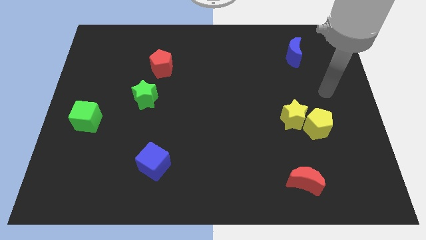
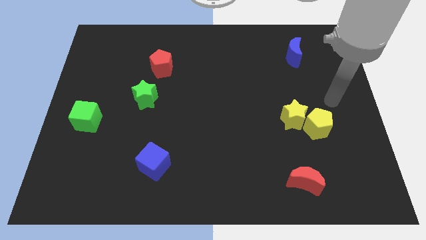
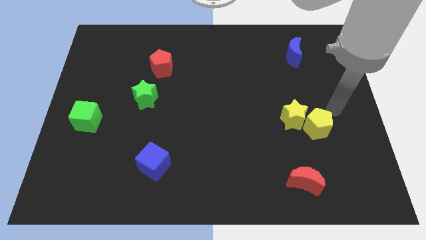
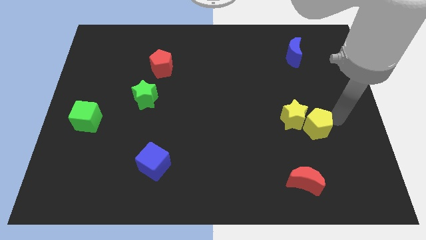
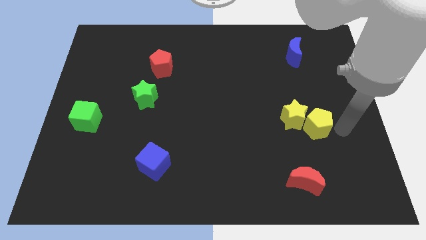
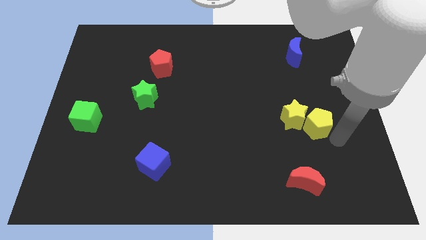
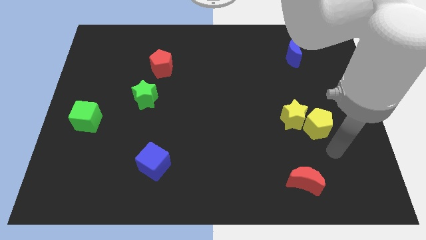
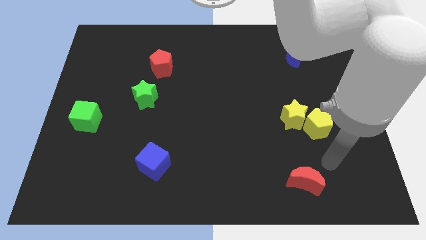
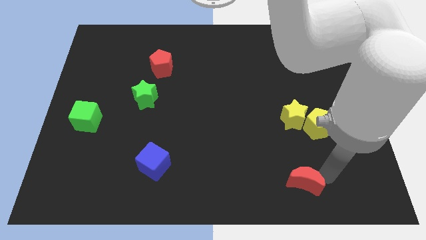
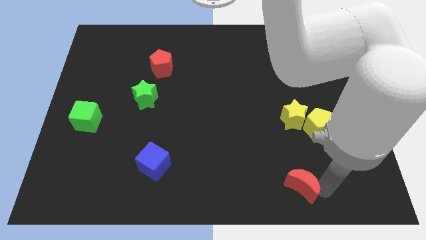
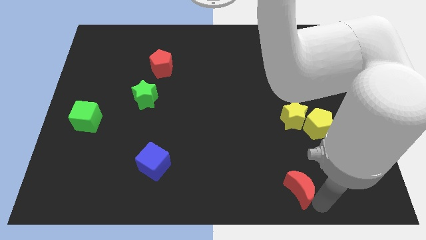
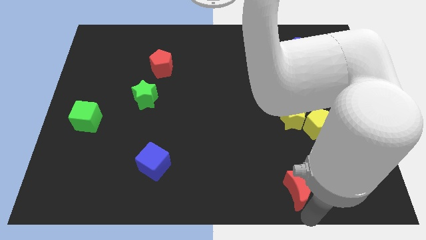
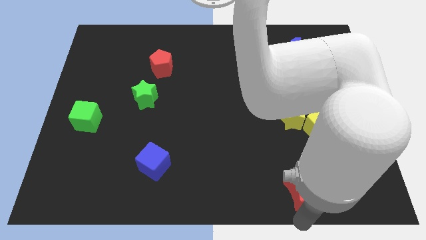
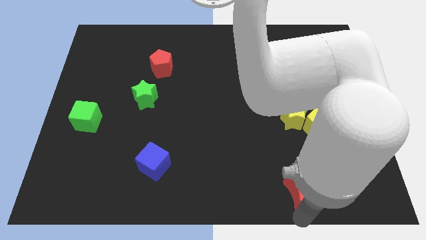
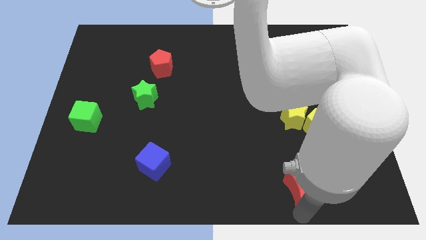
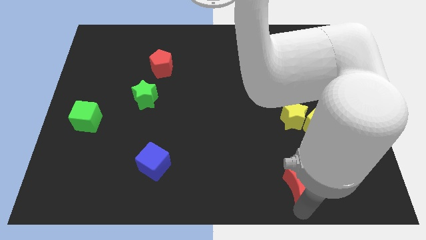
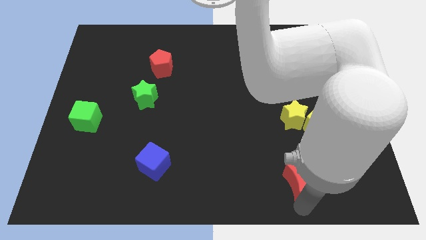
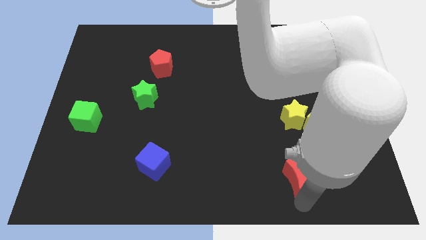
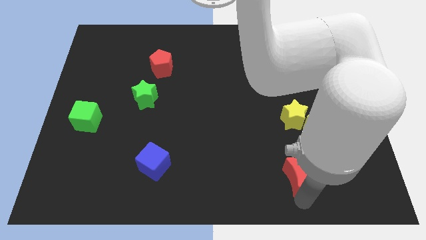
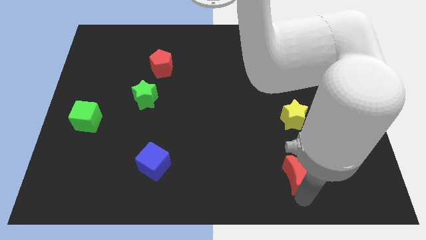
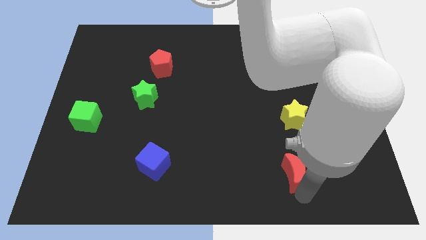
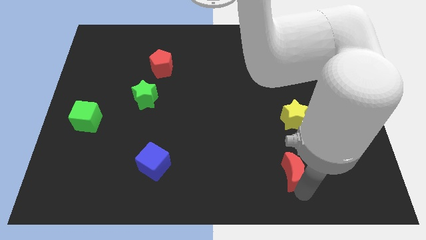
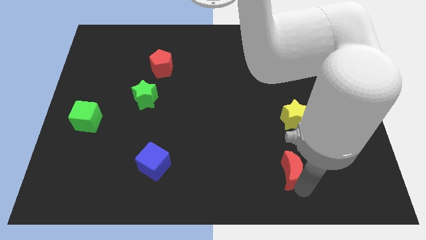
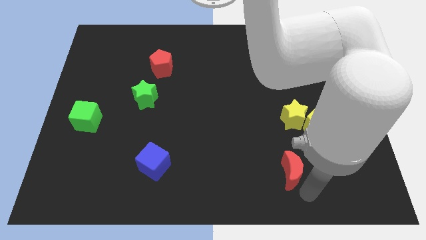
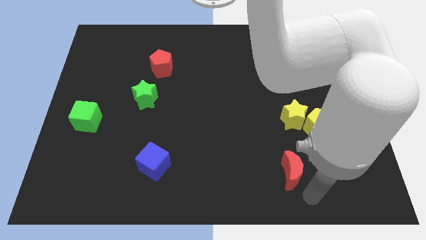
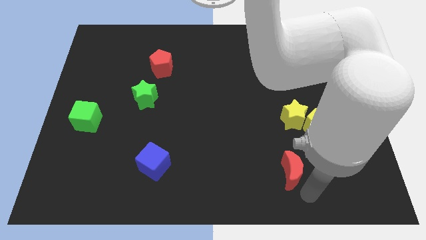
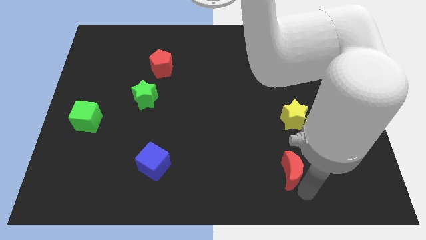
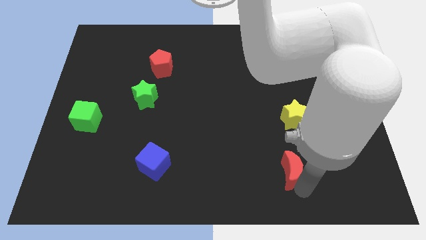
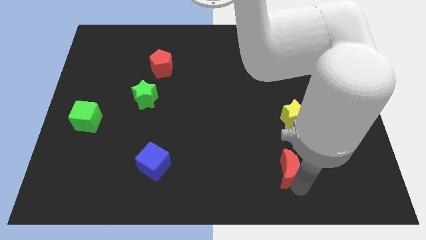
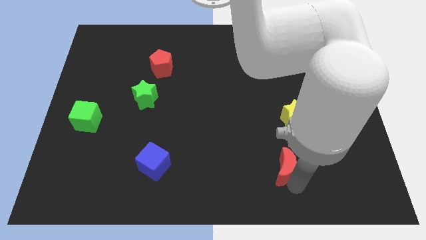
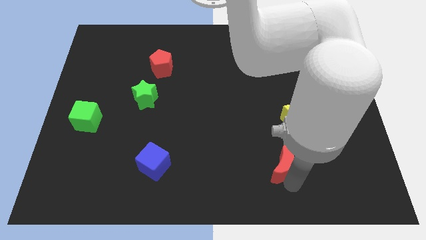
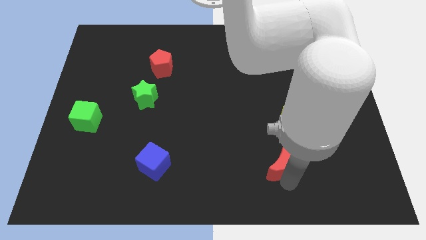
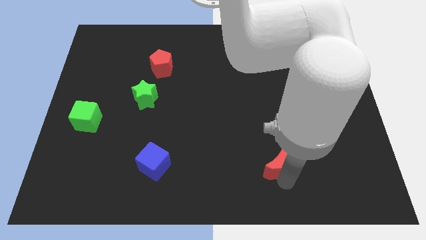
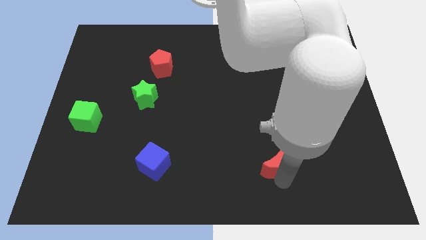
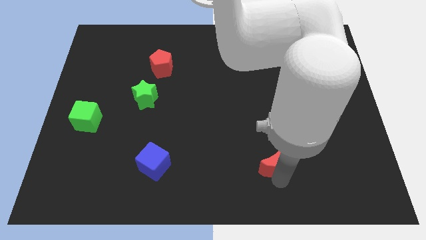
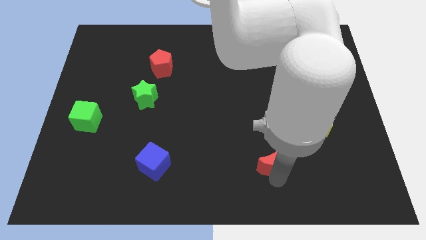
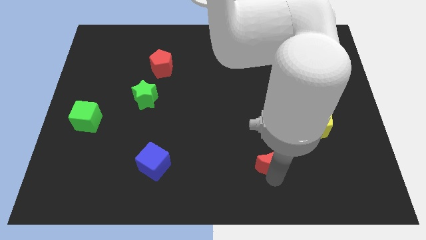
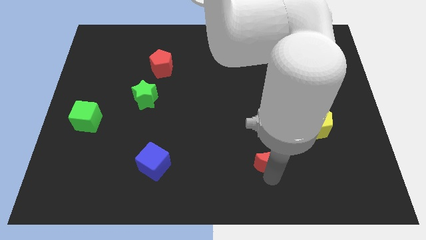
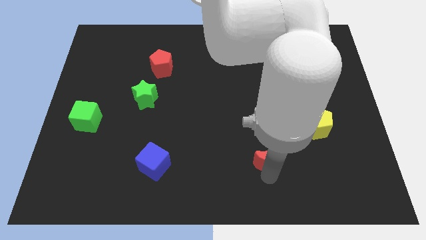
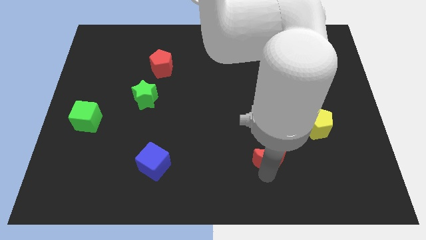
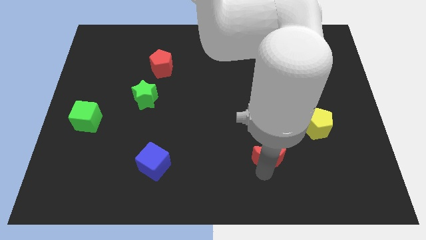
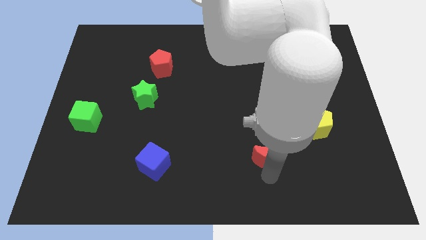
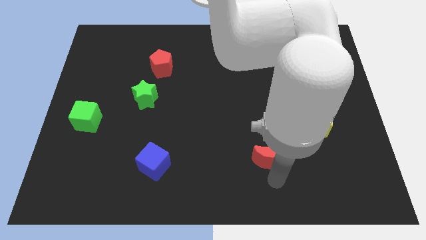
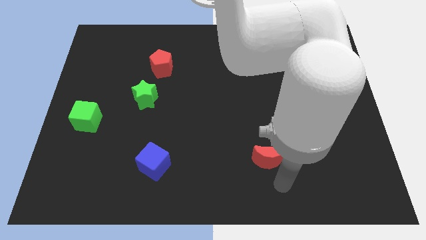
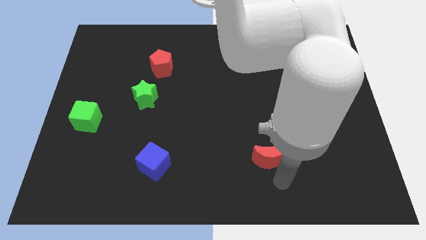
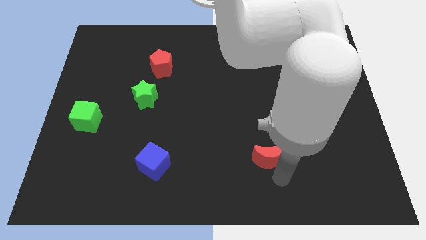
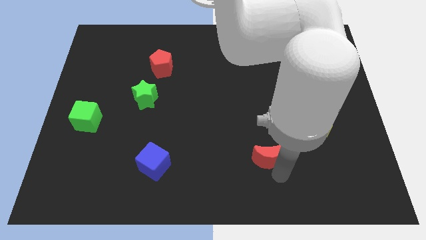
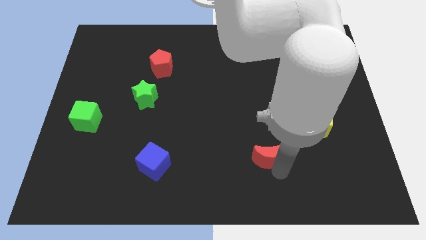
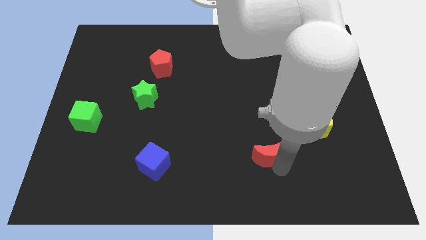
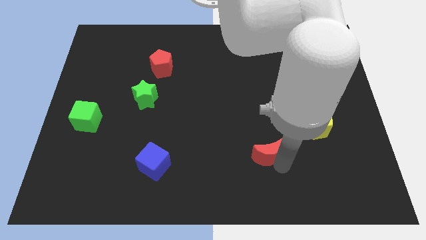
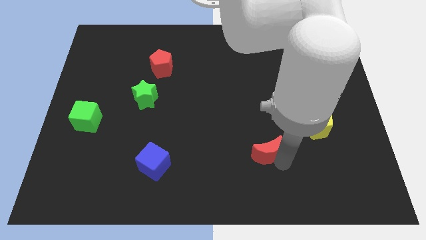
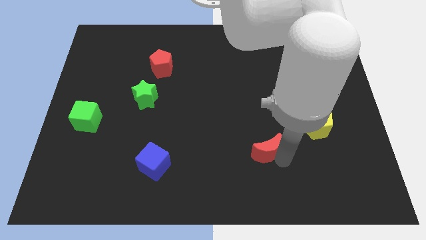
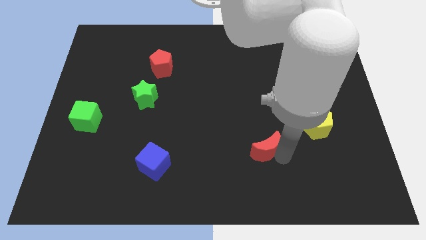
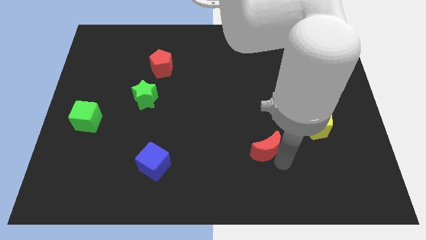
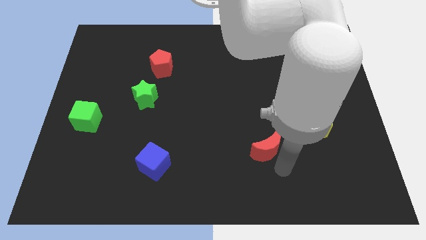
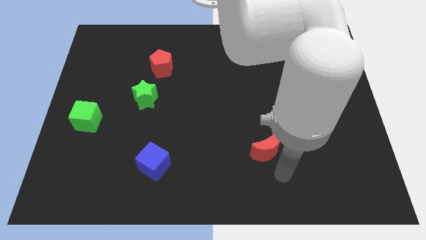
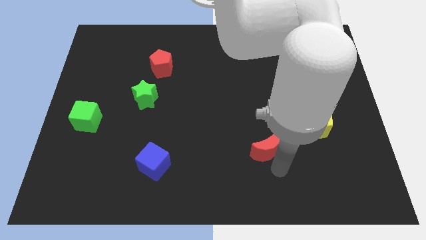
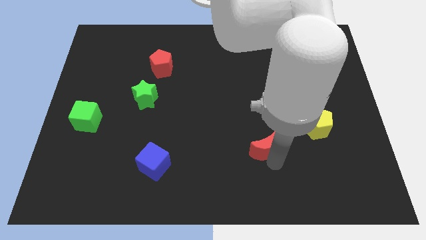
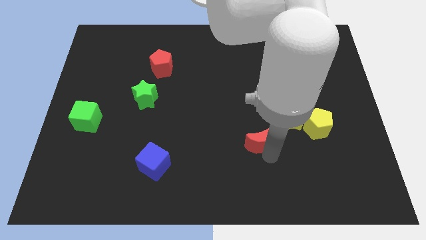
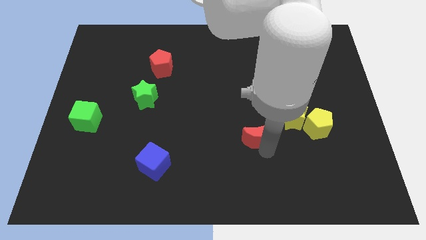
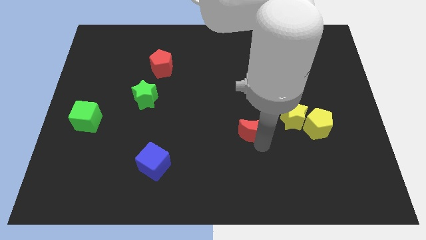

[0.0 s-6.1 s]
move the red moon to the left of the yellow star

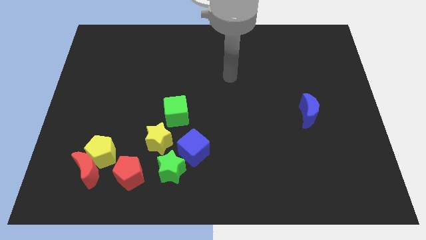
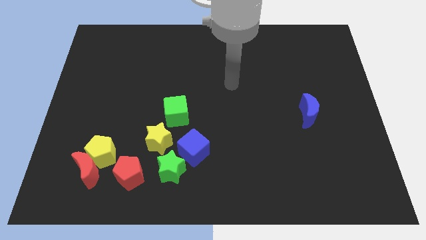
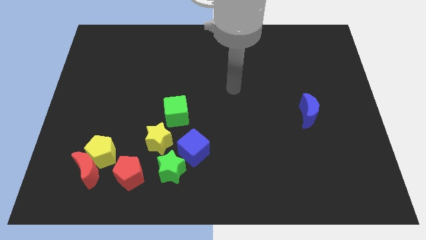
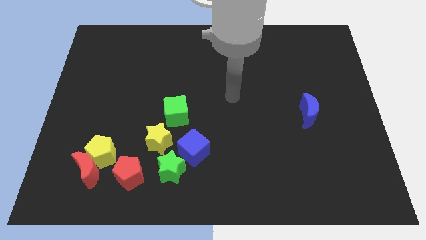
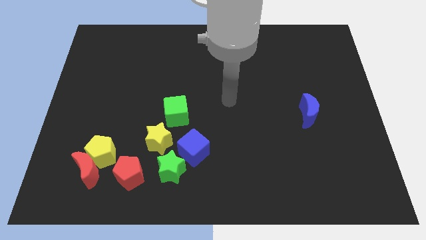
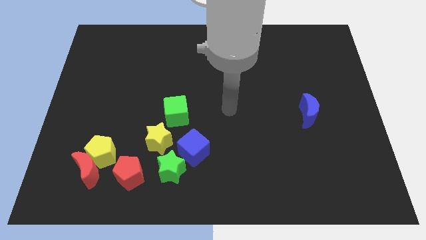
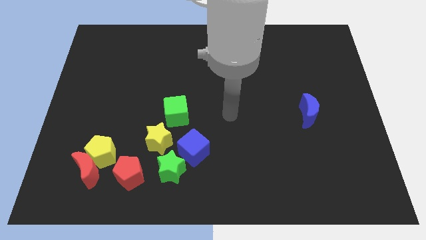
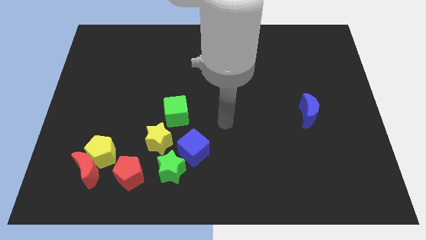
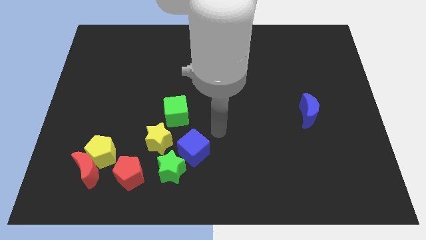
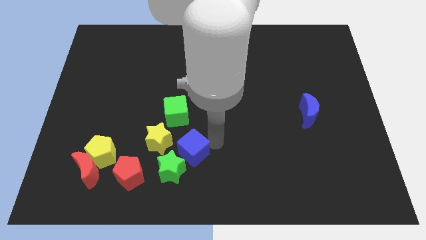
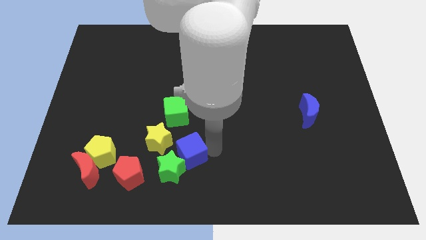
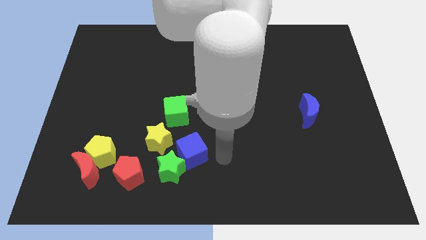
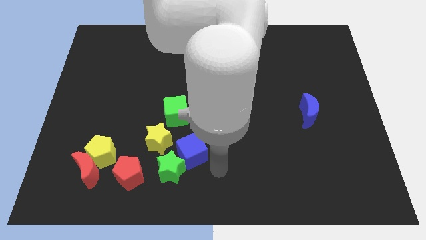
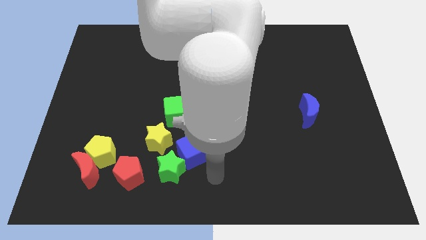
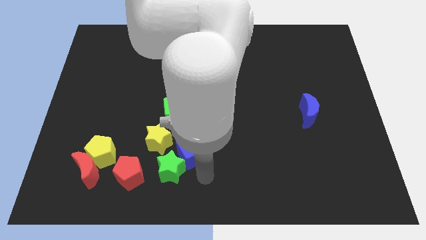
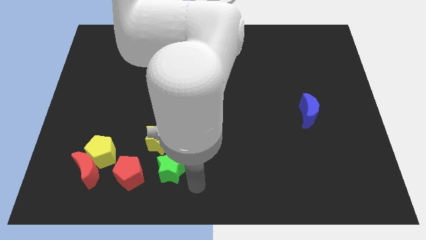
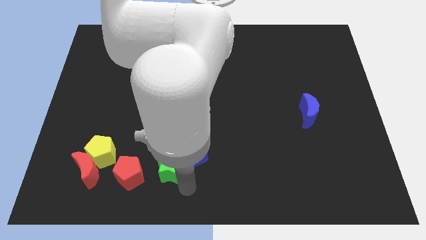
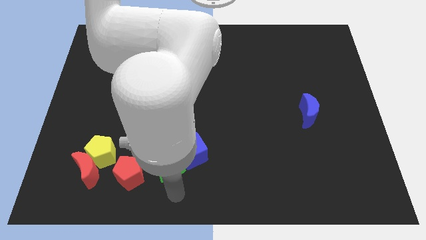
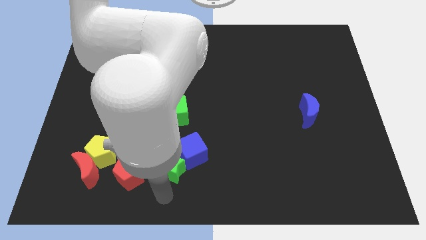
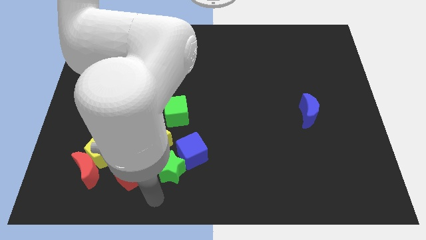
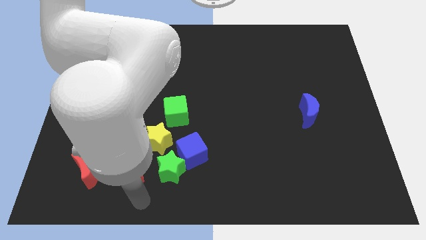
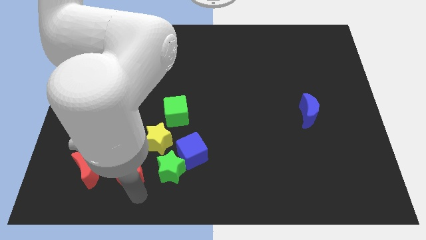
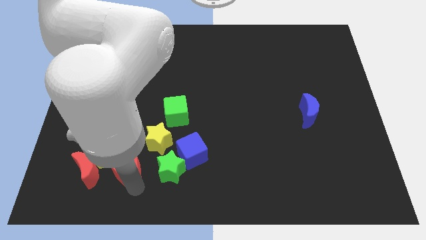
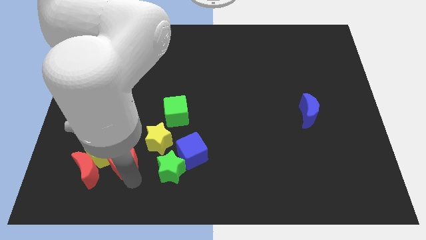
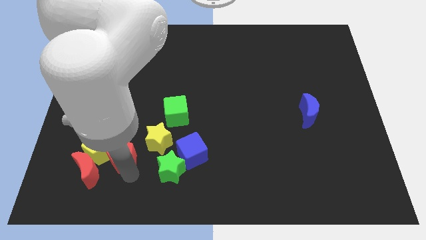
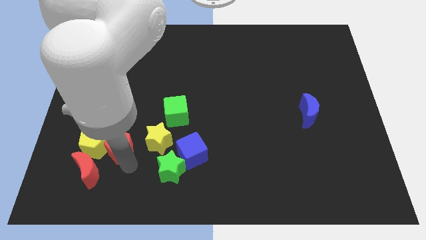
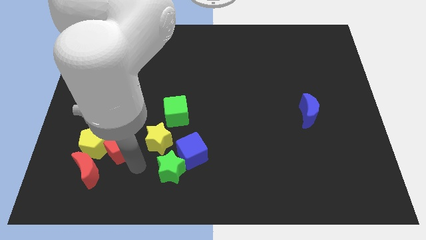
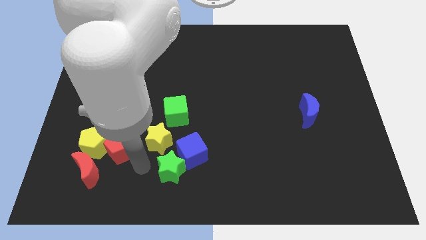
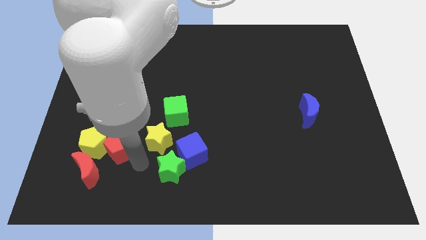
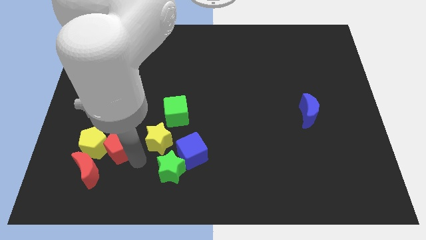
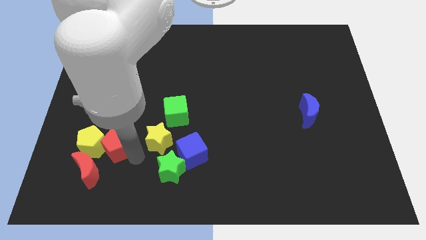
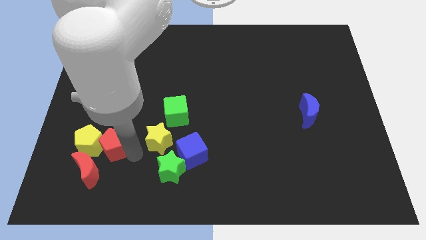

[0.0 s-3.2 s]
slide the red pentagon to the top side of the red moon
